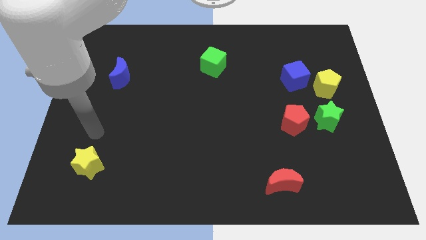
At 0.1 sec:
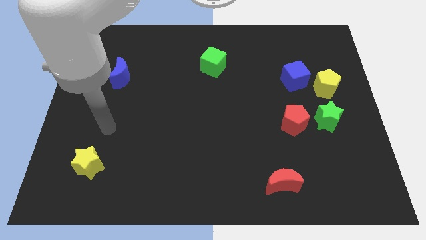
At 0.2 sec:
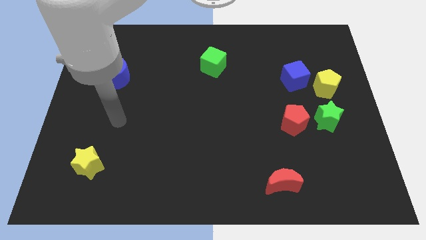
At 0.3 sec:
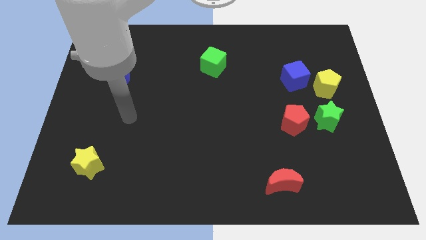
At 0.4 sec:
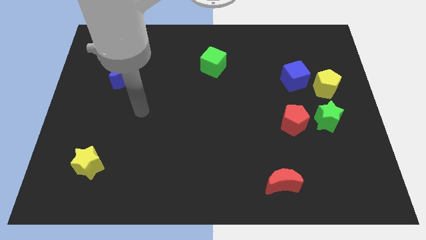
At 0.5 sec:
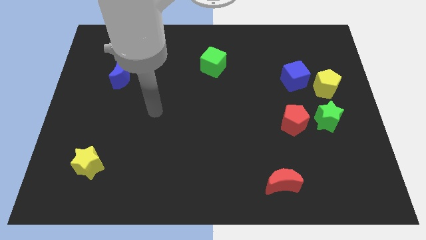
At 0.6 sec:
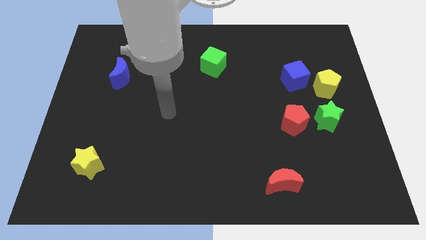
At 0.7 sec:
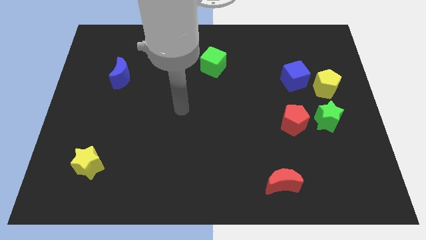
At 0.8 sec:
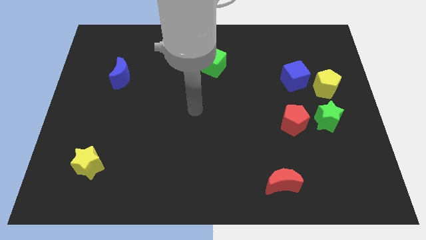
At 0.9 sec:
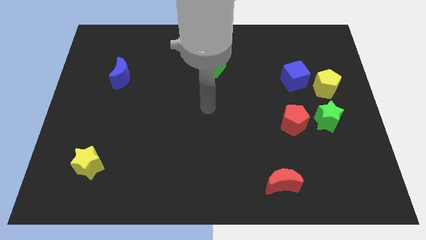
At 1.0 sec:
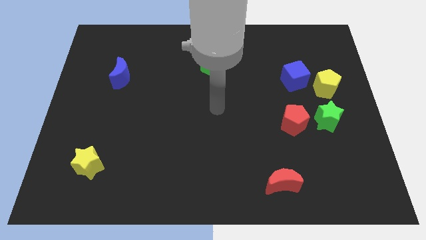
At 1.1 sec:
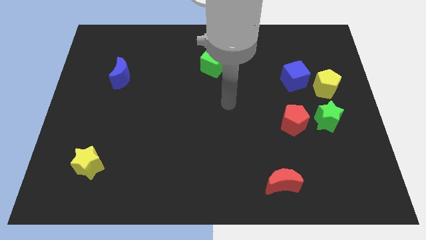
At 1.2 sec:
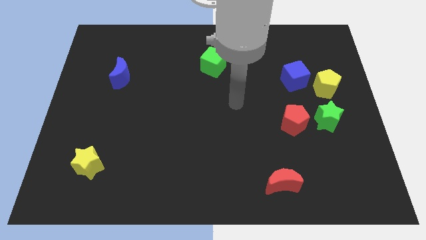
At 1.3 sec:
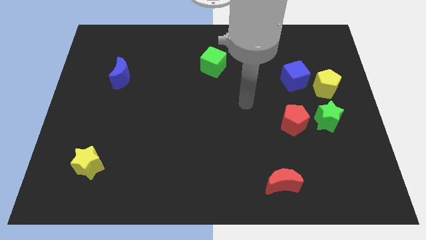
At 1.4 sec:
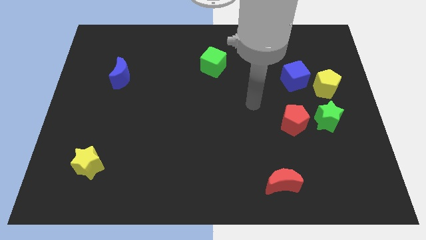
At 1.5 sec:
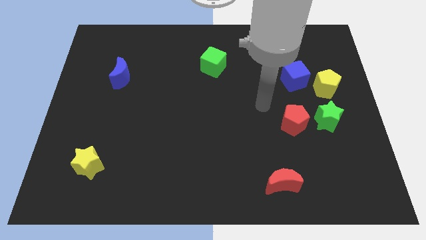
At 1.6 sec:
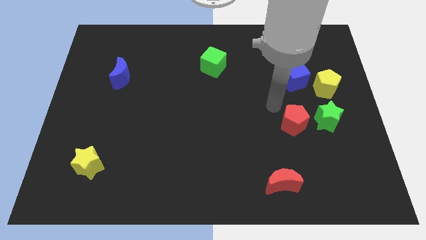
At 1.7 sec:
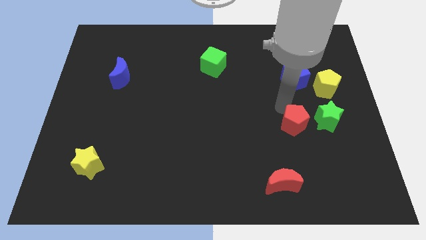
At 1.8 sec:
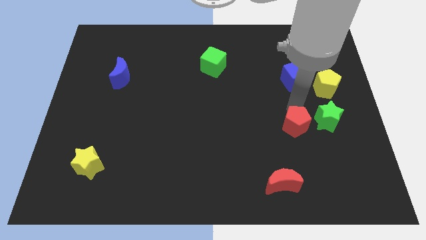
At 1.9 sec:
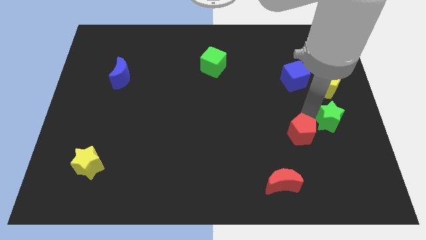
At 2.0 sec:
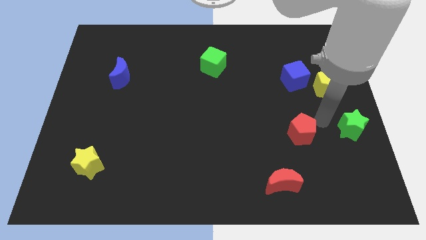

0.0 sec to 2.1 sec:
move the red pentagon away from the green star

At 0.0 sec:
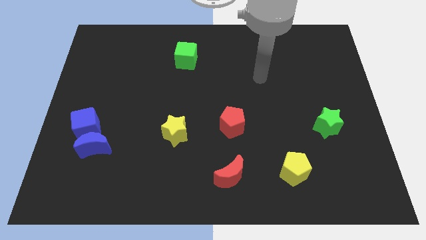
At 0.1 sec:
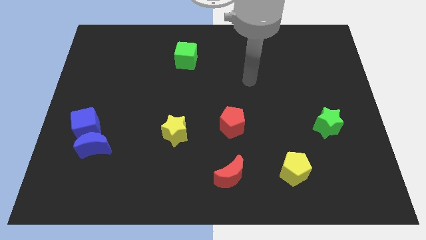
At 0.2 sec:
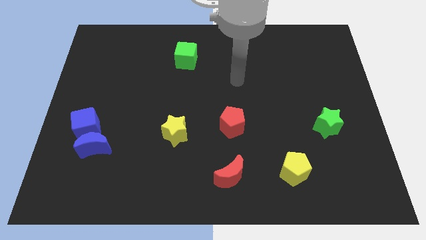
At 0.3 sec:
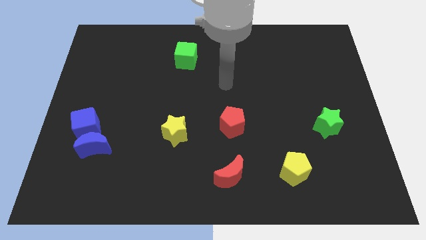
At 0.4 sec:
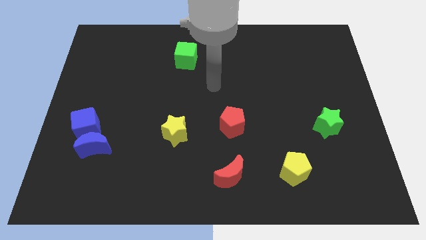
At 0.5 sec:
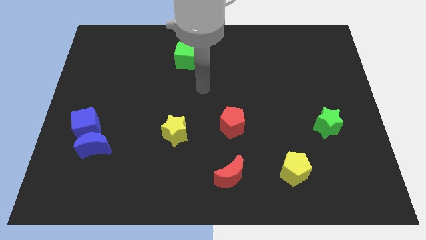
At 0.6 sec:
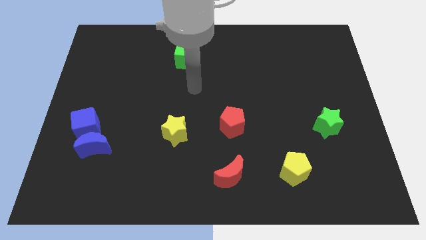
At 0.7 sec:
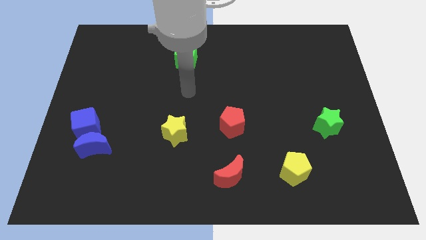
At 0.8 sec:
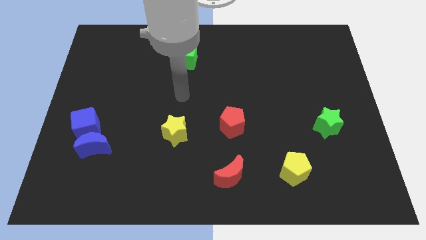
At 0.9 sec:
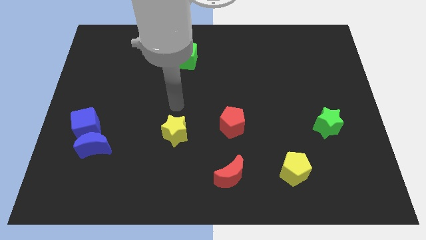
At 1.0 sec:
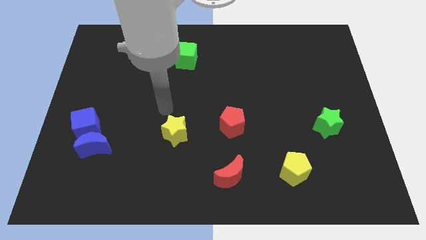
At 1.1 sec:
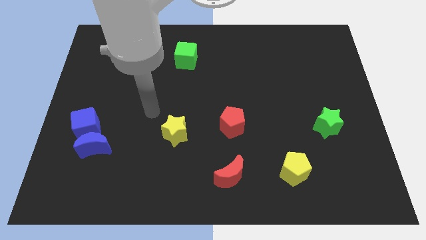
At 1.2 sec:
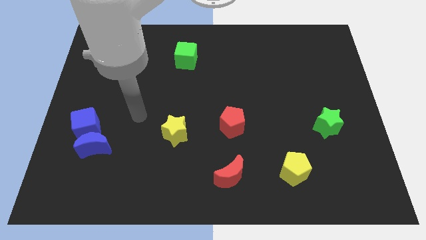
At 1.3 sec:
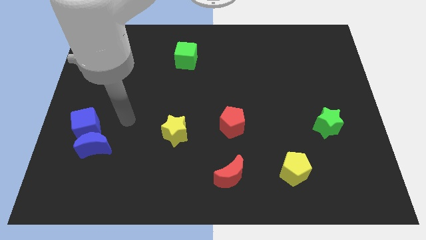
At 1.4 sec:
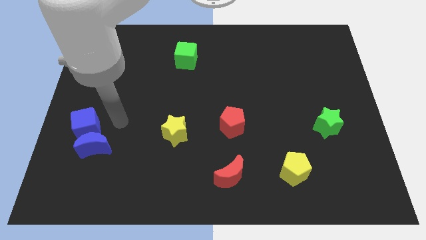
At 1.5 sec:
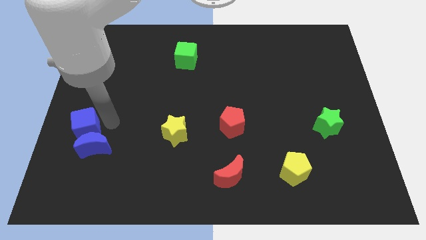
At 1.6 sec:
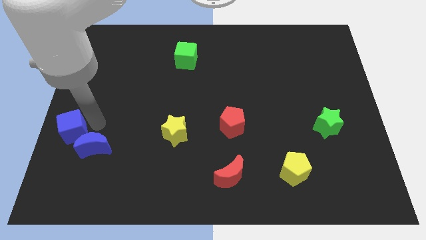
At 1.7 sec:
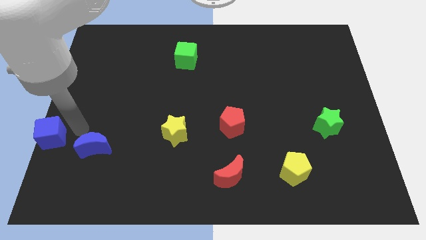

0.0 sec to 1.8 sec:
pull the blue moon apart from the blue cube

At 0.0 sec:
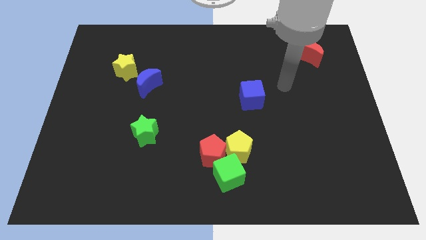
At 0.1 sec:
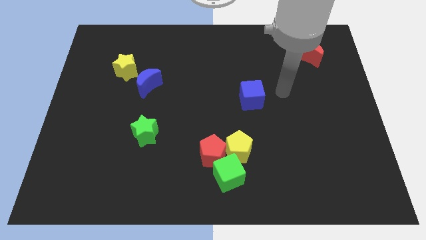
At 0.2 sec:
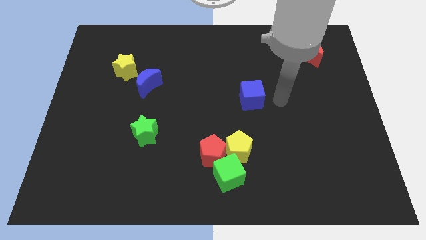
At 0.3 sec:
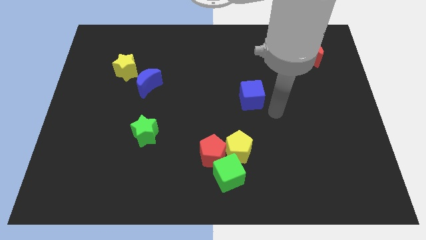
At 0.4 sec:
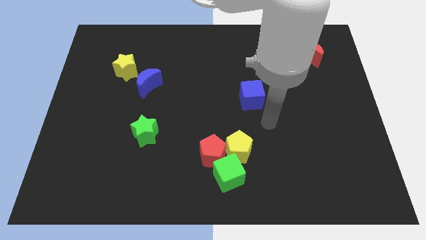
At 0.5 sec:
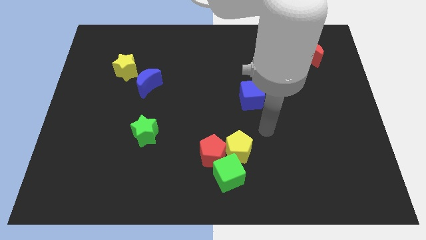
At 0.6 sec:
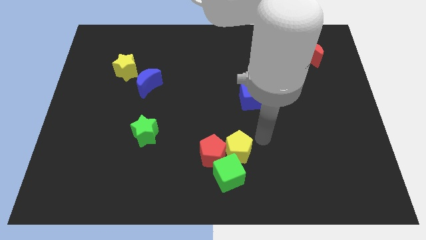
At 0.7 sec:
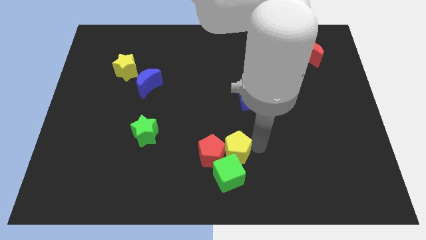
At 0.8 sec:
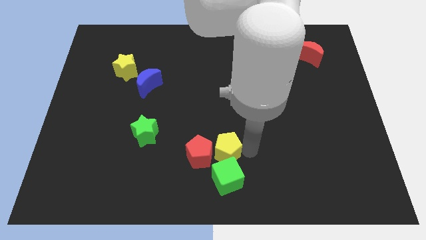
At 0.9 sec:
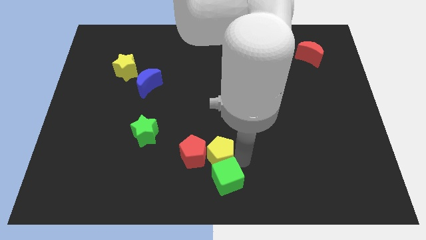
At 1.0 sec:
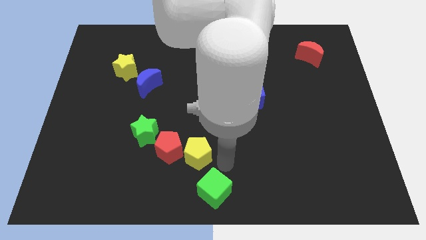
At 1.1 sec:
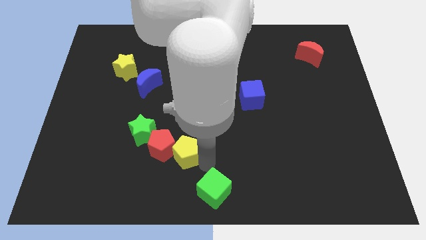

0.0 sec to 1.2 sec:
move the red pentagon away from the yellow pentagon and green cube

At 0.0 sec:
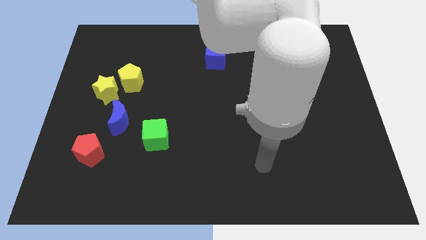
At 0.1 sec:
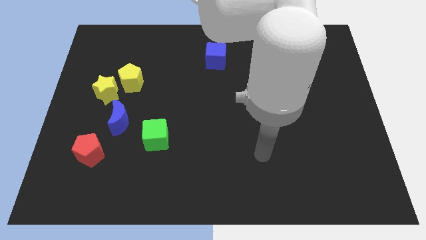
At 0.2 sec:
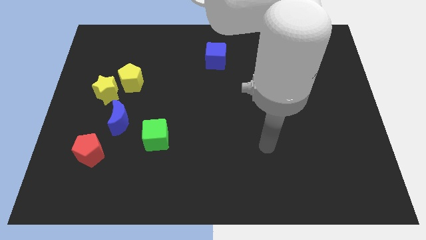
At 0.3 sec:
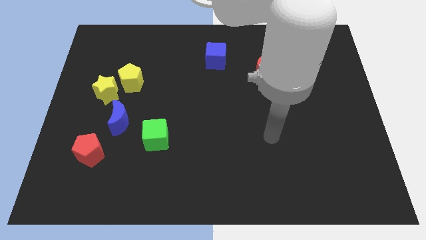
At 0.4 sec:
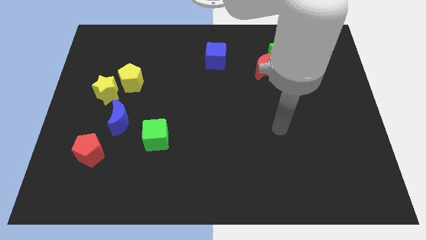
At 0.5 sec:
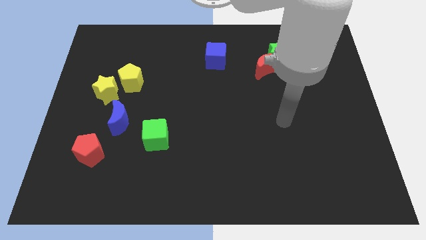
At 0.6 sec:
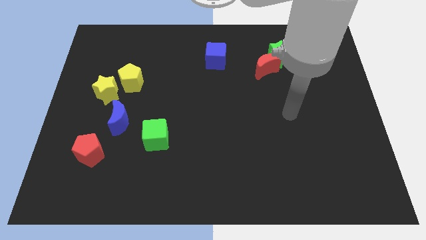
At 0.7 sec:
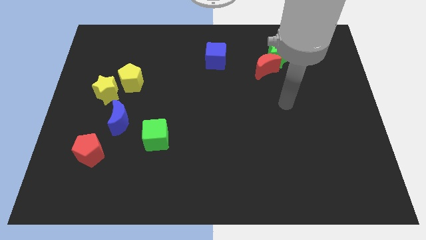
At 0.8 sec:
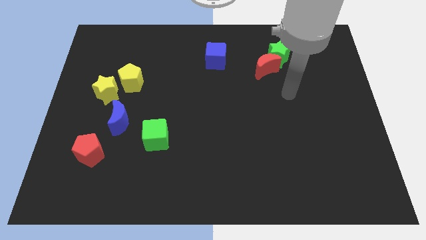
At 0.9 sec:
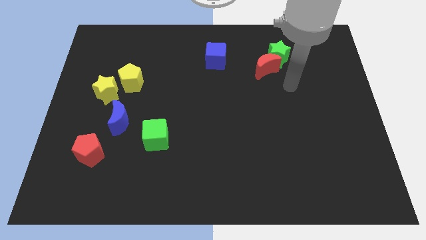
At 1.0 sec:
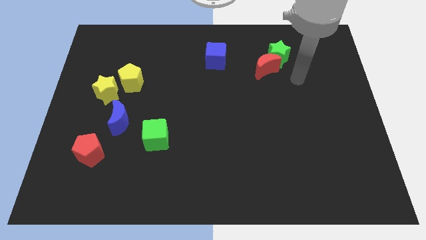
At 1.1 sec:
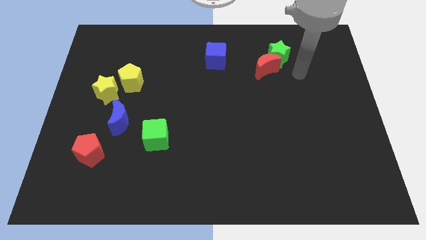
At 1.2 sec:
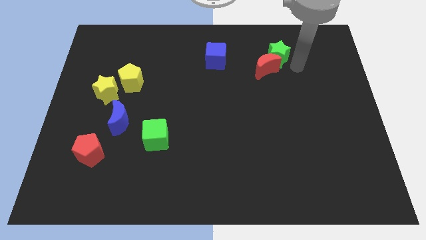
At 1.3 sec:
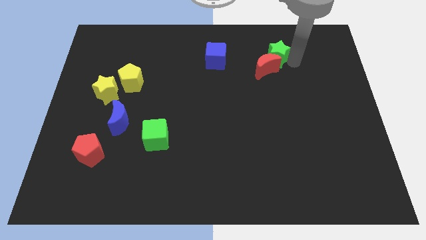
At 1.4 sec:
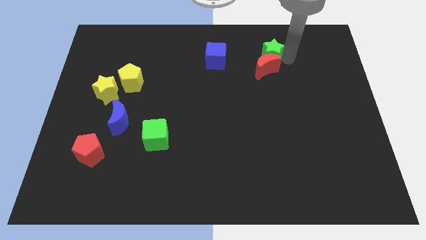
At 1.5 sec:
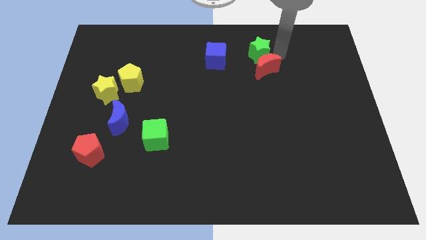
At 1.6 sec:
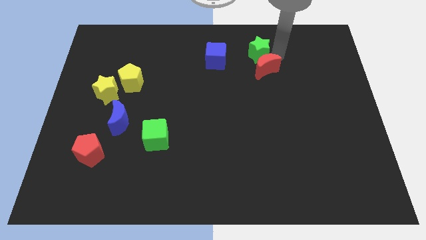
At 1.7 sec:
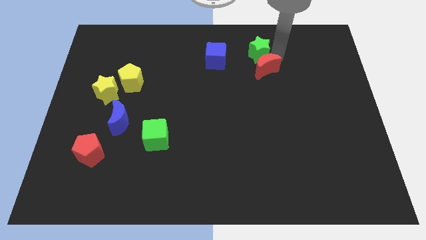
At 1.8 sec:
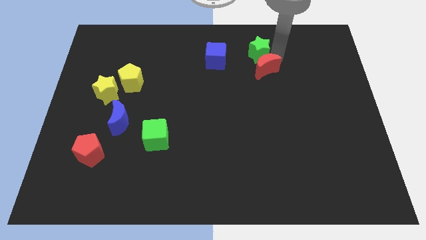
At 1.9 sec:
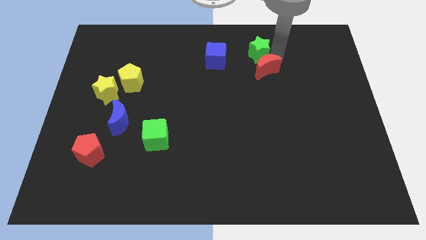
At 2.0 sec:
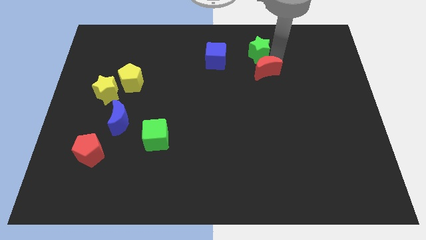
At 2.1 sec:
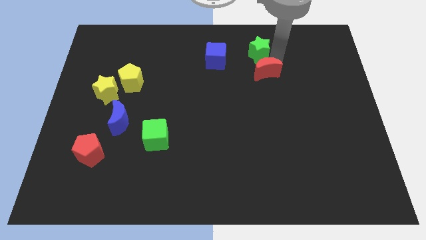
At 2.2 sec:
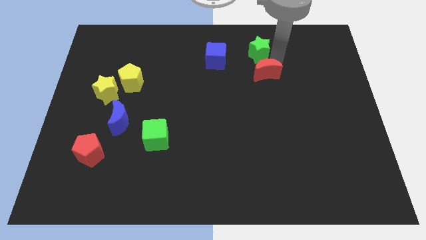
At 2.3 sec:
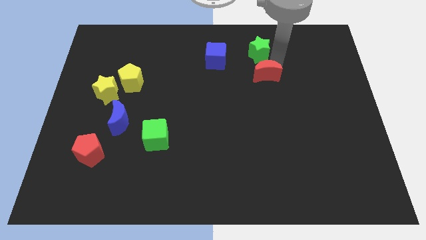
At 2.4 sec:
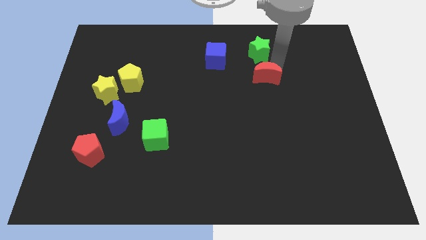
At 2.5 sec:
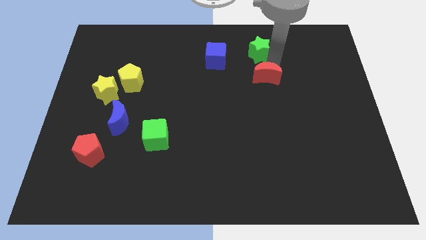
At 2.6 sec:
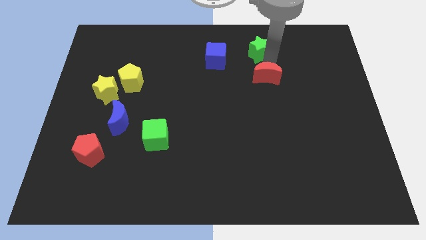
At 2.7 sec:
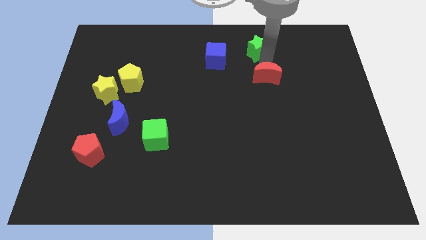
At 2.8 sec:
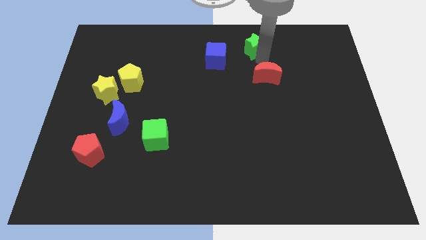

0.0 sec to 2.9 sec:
pull the red moon apart from the green star

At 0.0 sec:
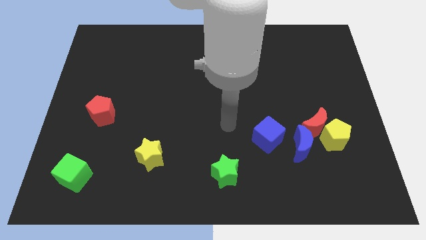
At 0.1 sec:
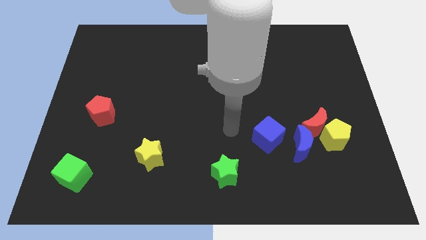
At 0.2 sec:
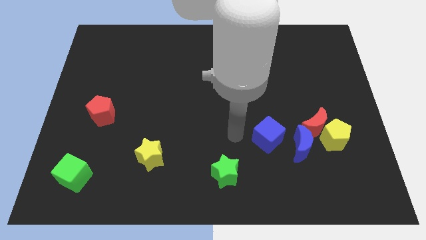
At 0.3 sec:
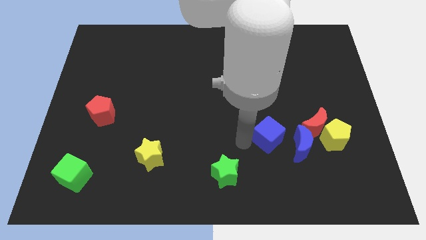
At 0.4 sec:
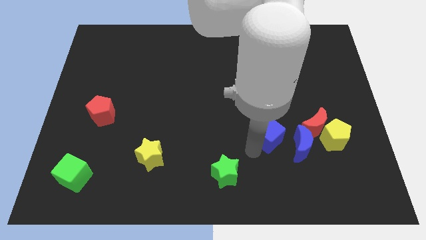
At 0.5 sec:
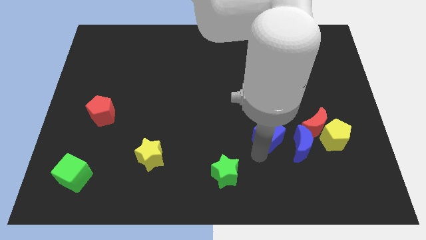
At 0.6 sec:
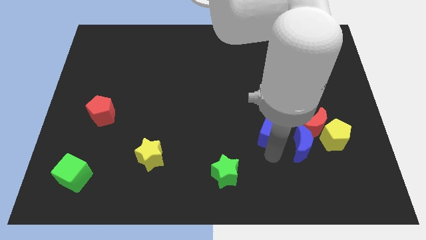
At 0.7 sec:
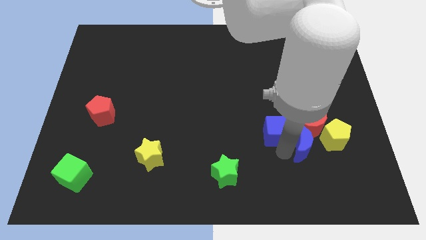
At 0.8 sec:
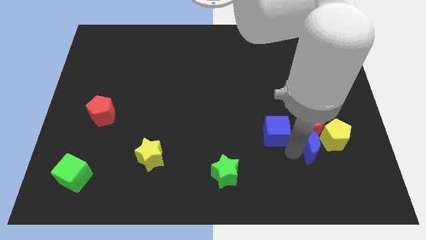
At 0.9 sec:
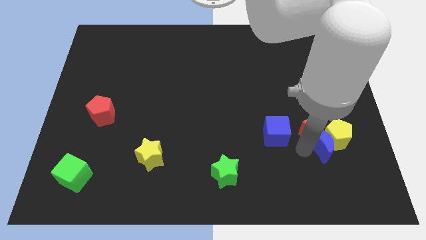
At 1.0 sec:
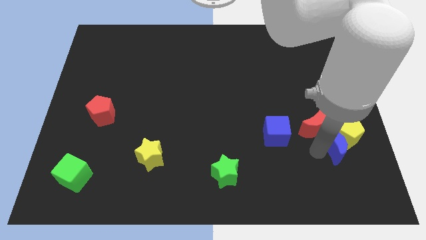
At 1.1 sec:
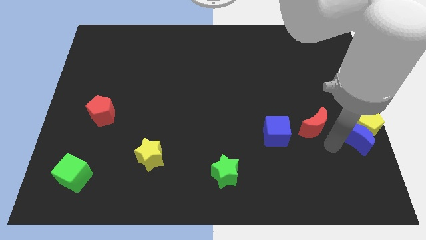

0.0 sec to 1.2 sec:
pull the red moon apart from the yellow pentagon and blue moon
